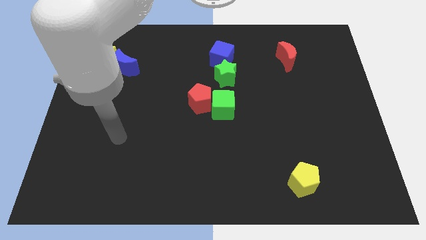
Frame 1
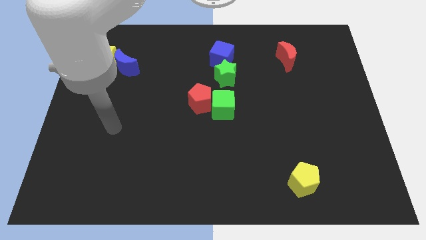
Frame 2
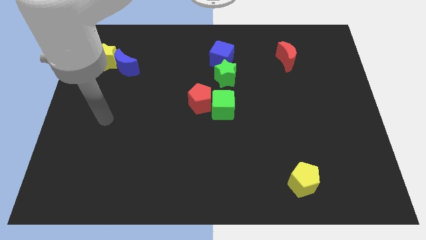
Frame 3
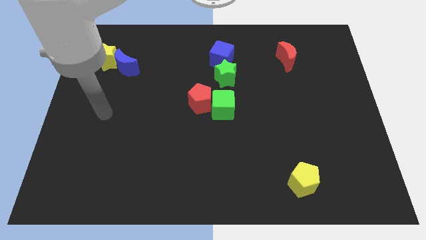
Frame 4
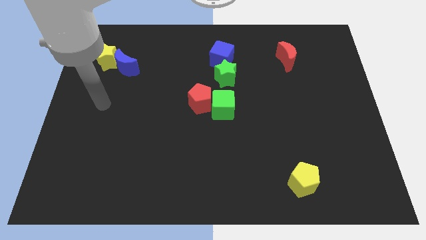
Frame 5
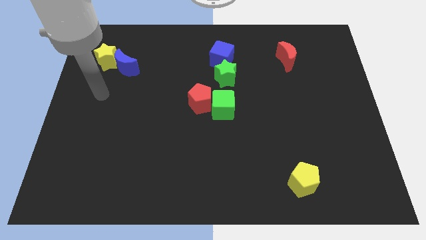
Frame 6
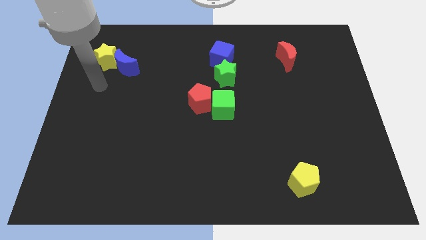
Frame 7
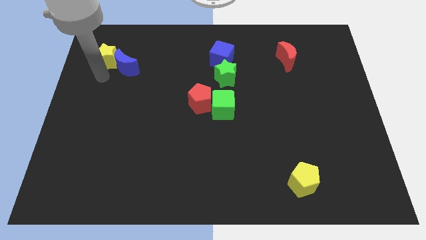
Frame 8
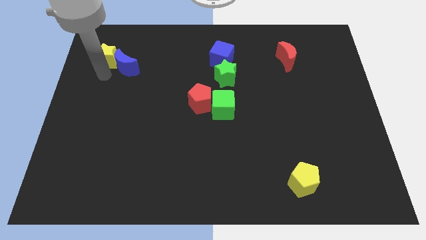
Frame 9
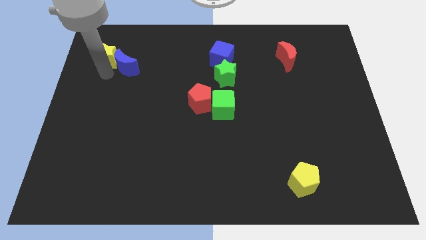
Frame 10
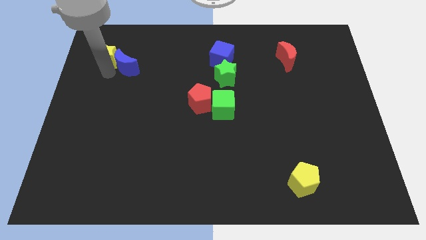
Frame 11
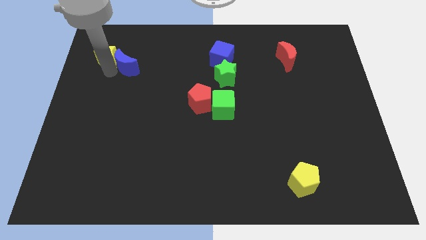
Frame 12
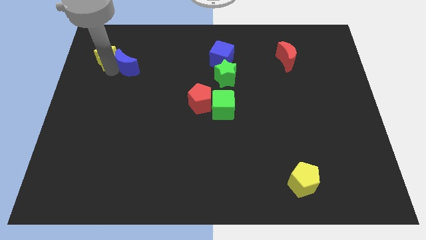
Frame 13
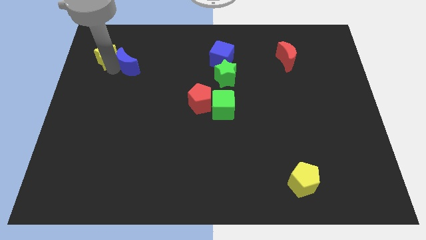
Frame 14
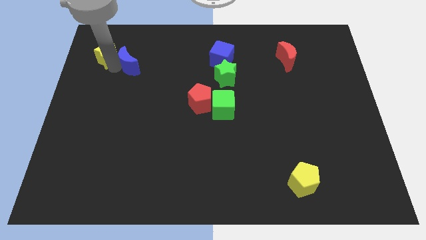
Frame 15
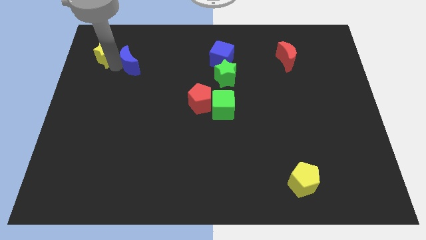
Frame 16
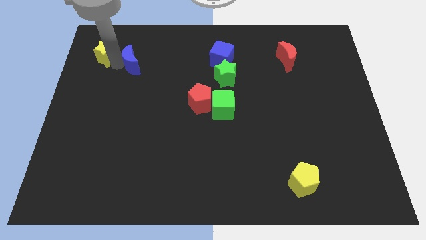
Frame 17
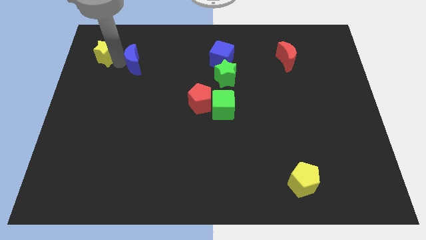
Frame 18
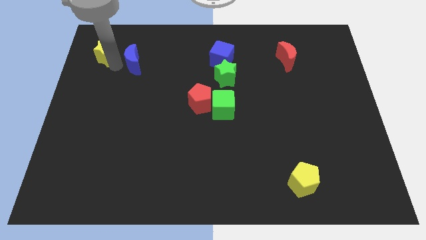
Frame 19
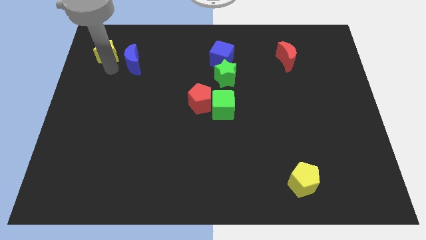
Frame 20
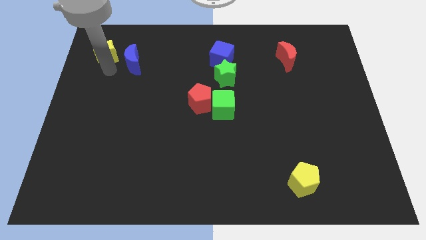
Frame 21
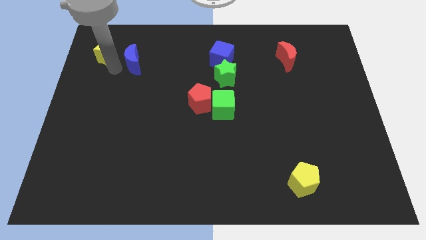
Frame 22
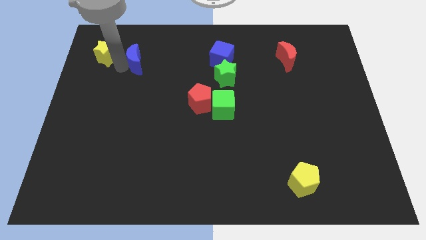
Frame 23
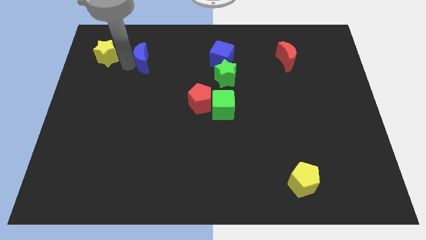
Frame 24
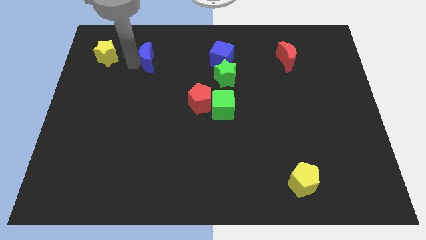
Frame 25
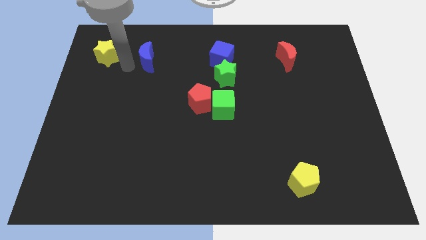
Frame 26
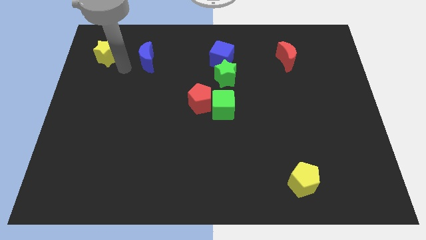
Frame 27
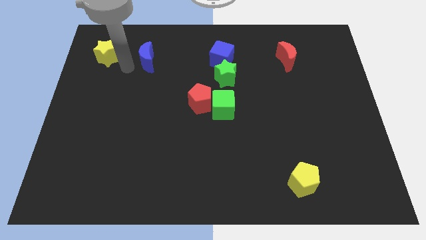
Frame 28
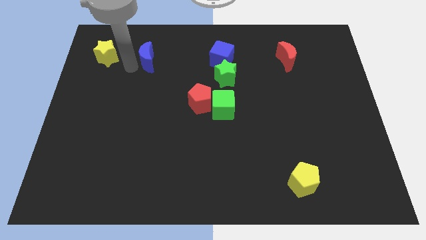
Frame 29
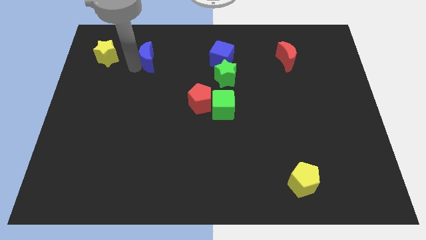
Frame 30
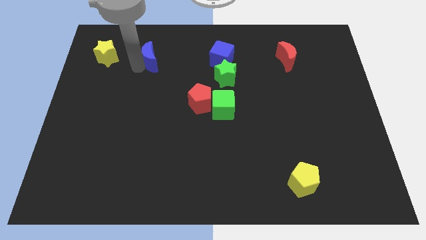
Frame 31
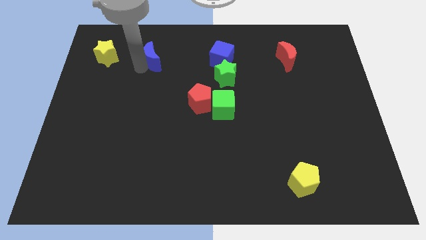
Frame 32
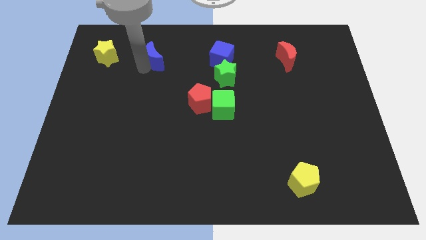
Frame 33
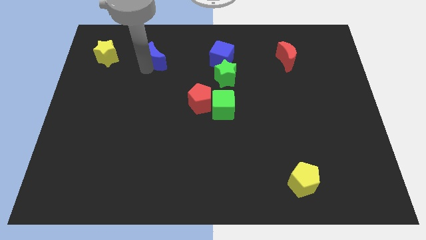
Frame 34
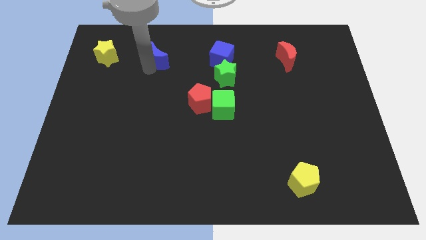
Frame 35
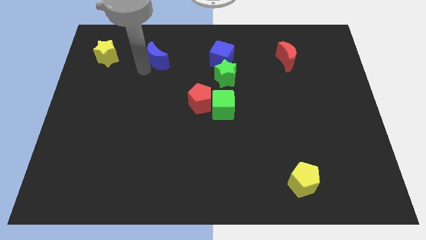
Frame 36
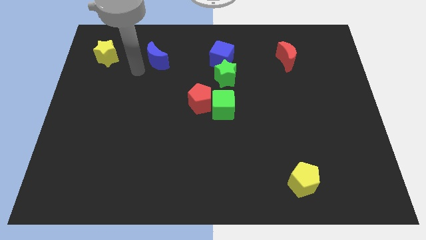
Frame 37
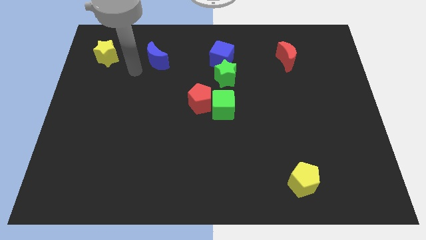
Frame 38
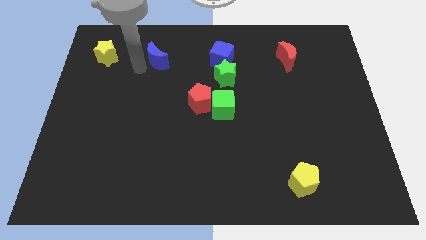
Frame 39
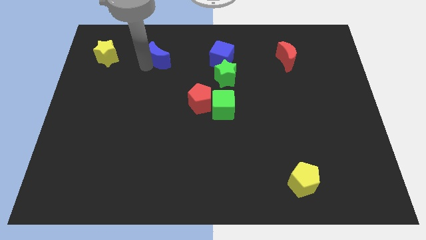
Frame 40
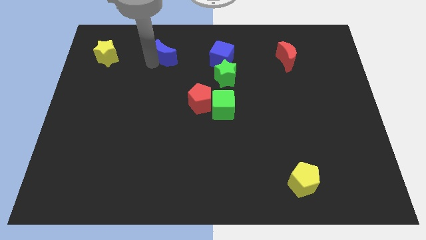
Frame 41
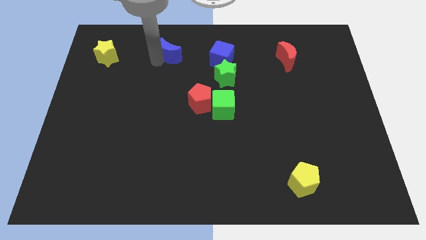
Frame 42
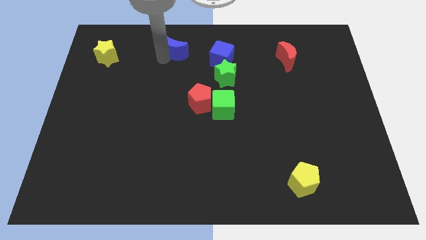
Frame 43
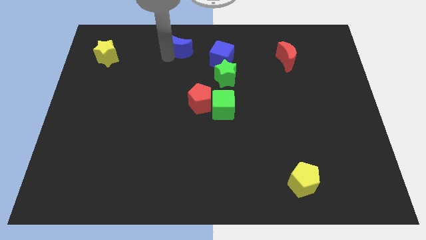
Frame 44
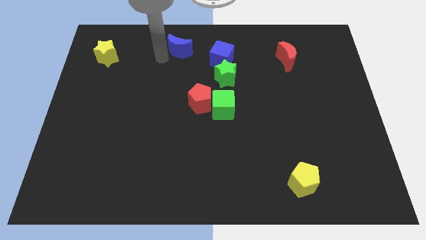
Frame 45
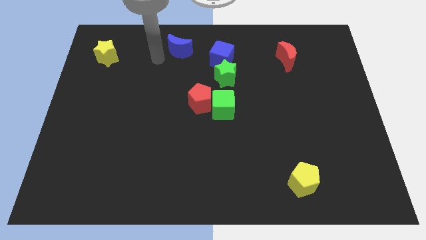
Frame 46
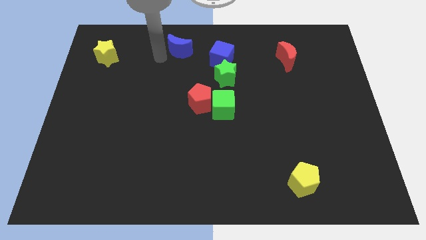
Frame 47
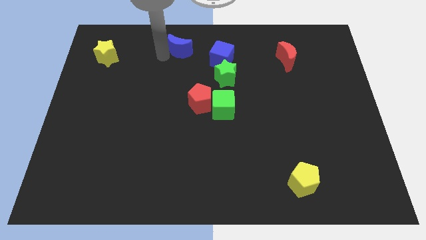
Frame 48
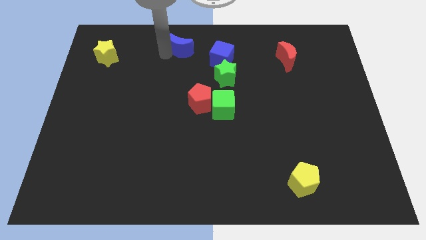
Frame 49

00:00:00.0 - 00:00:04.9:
put the blue moon to the towards your base

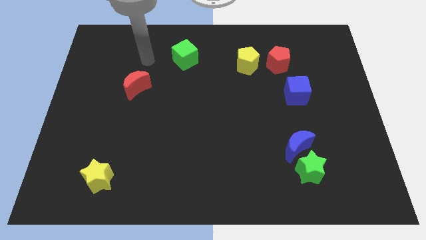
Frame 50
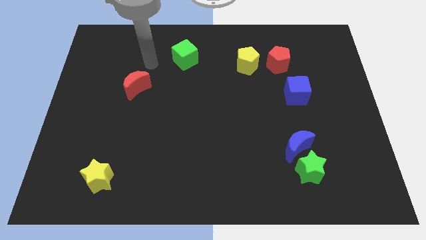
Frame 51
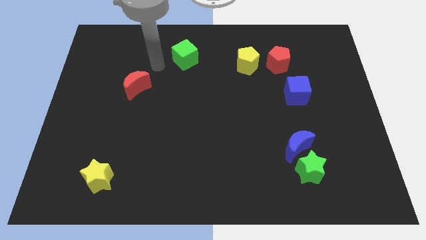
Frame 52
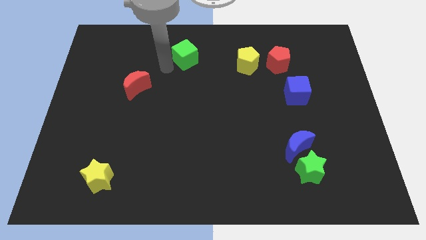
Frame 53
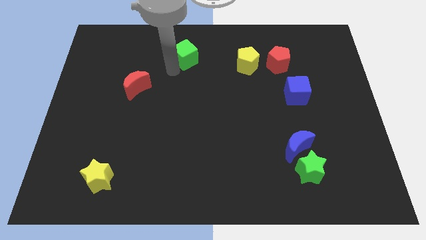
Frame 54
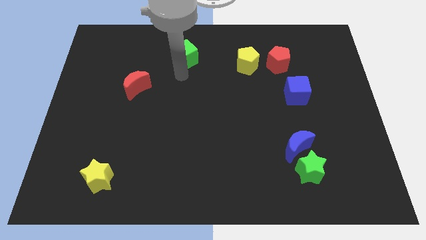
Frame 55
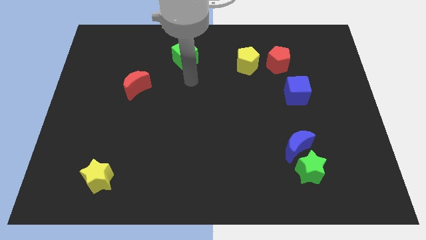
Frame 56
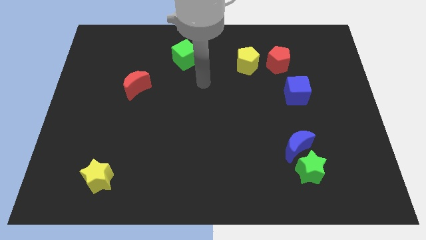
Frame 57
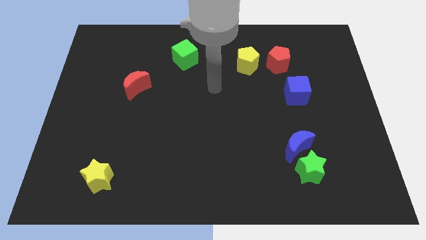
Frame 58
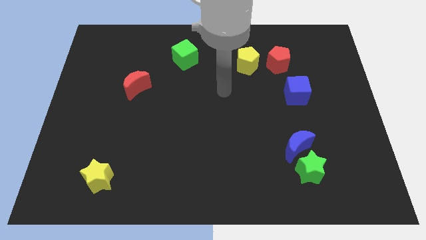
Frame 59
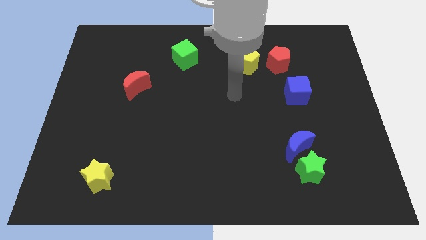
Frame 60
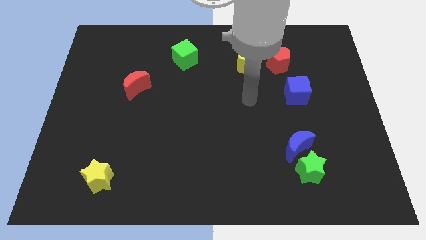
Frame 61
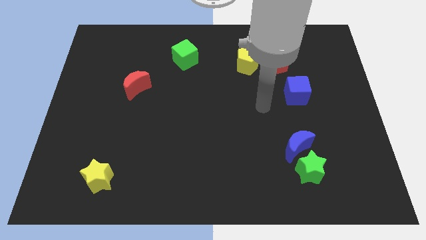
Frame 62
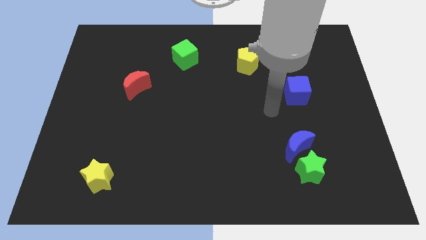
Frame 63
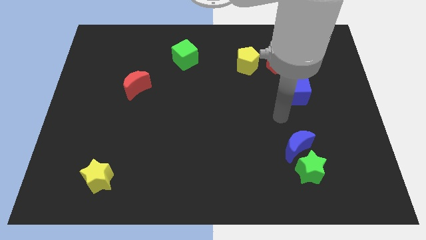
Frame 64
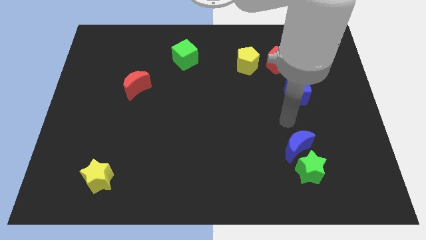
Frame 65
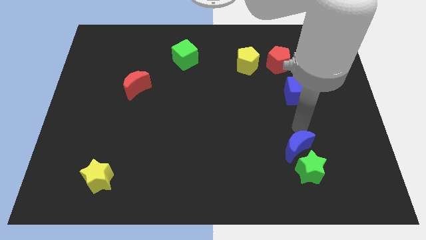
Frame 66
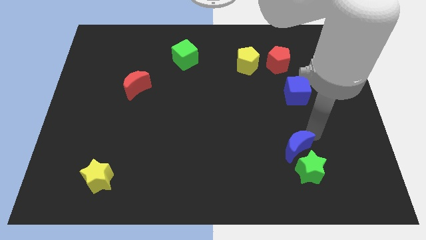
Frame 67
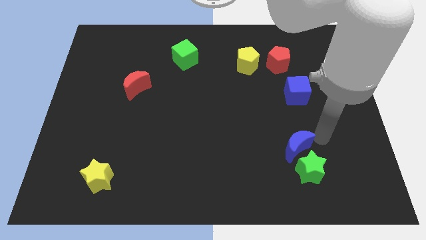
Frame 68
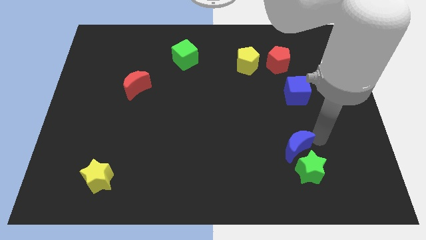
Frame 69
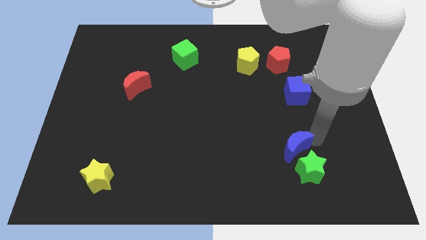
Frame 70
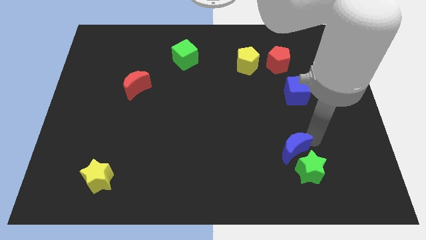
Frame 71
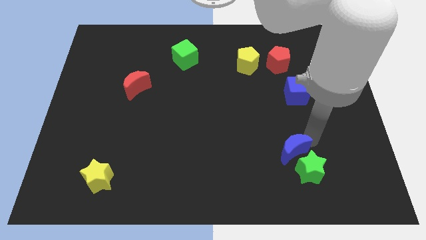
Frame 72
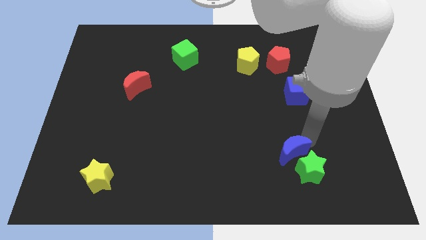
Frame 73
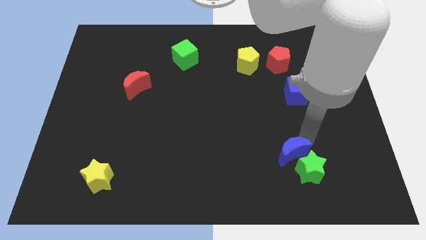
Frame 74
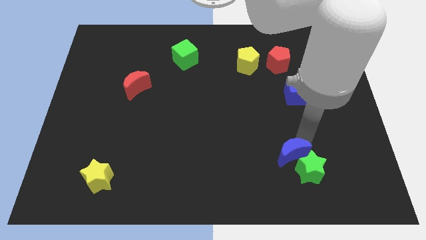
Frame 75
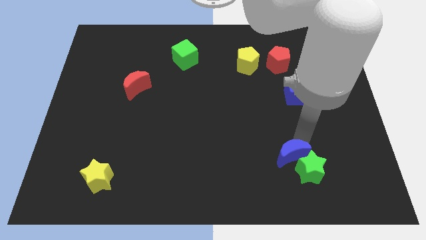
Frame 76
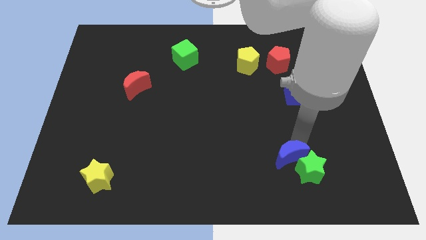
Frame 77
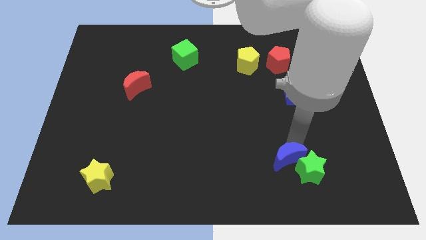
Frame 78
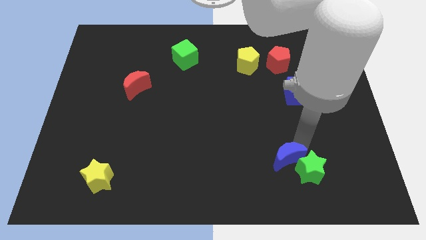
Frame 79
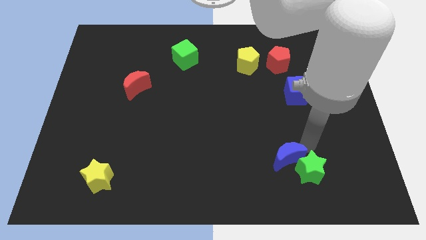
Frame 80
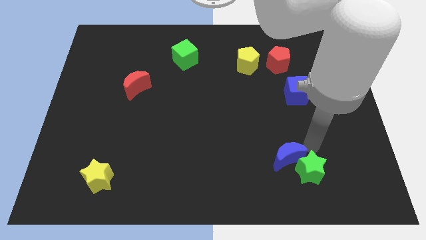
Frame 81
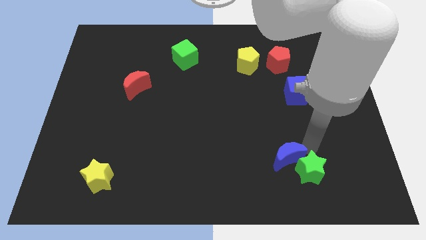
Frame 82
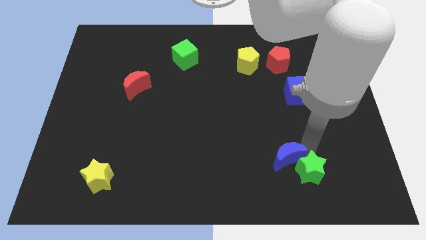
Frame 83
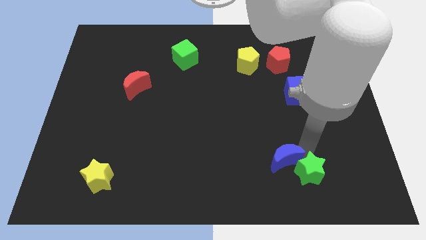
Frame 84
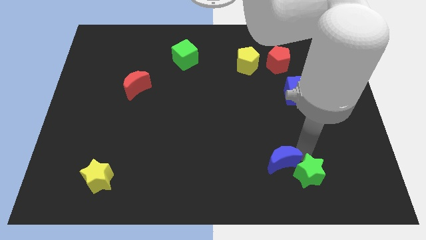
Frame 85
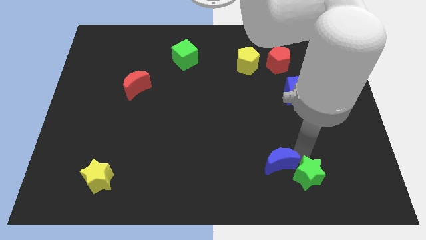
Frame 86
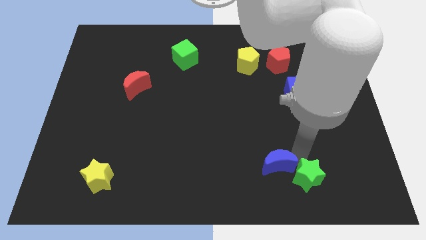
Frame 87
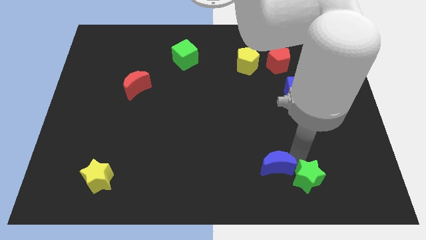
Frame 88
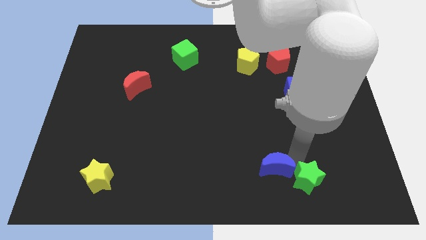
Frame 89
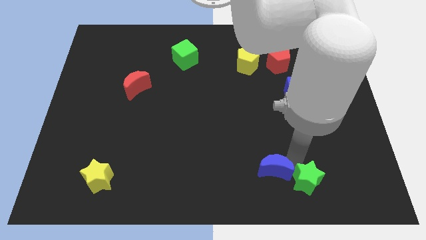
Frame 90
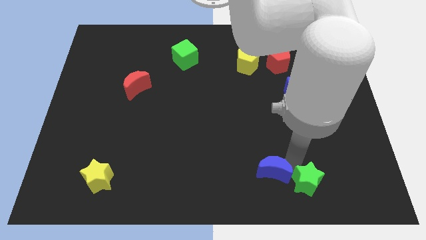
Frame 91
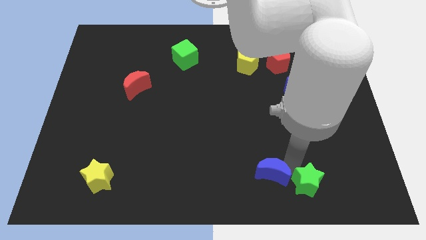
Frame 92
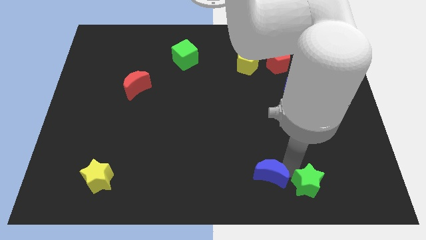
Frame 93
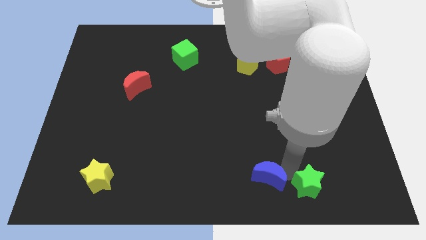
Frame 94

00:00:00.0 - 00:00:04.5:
slide the blue moon to the bottom side
